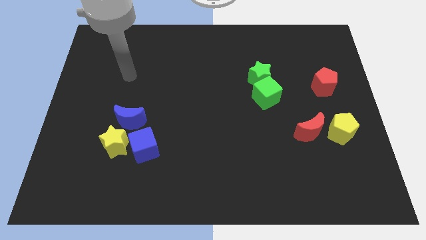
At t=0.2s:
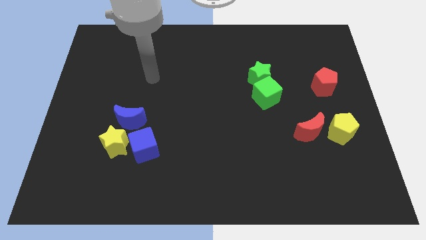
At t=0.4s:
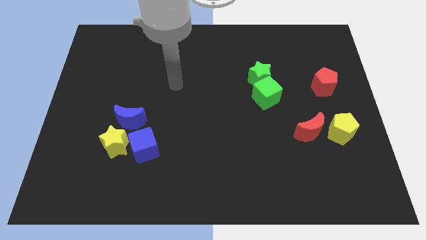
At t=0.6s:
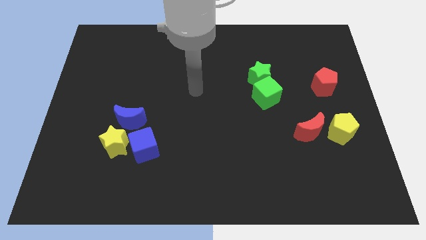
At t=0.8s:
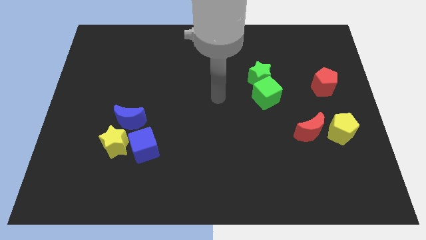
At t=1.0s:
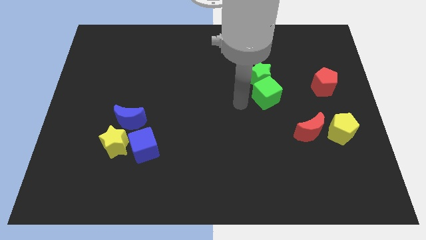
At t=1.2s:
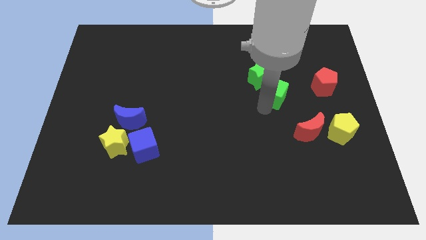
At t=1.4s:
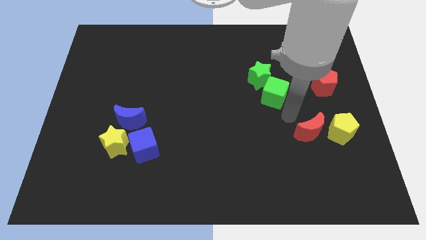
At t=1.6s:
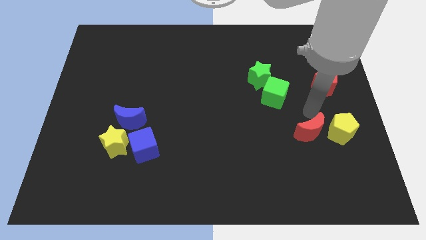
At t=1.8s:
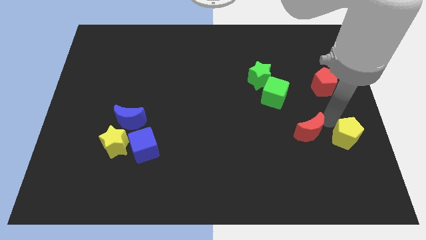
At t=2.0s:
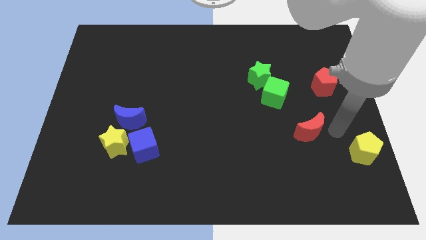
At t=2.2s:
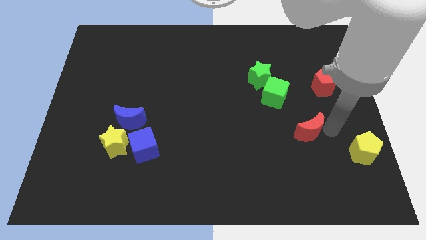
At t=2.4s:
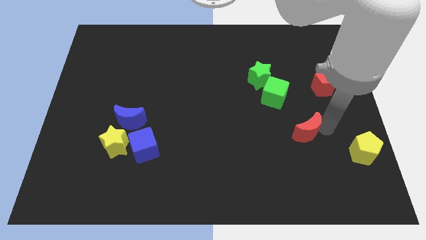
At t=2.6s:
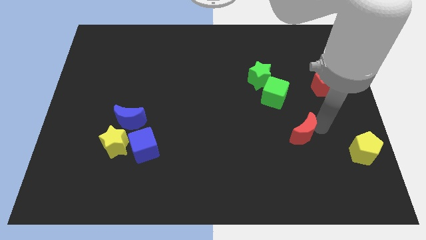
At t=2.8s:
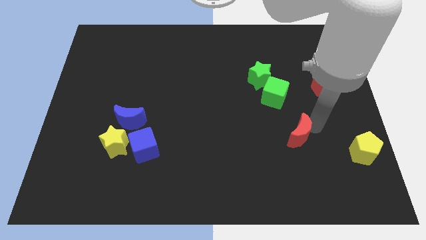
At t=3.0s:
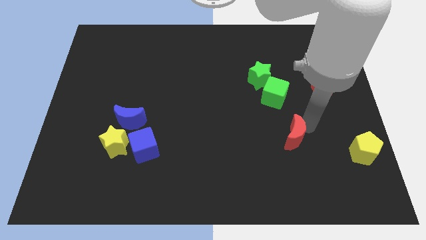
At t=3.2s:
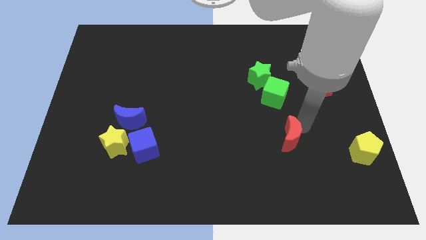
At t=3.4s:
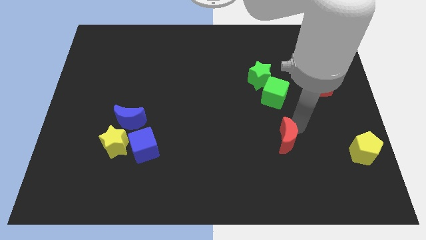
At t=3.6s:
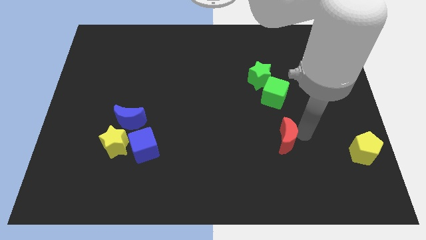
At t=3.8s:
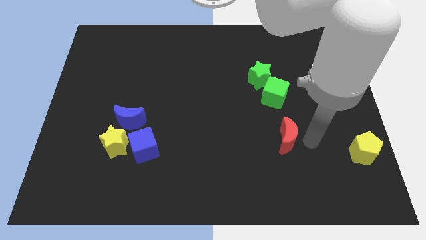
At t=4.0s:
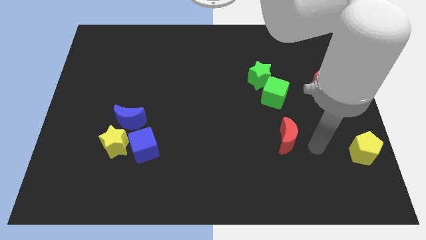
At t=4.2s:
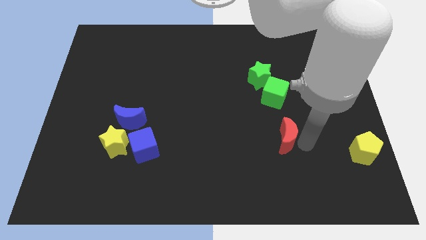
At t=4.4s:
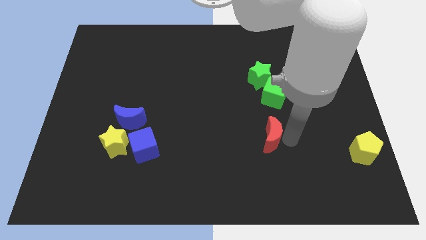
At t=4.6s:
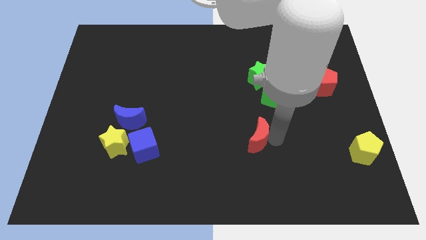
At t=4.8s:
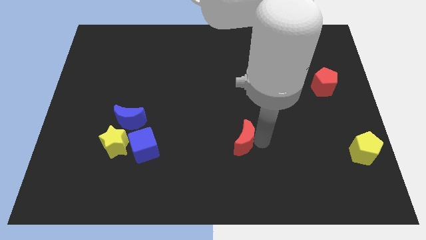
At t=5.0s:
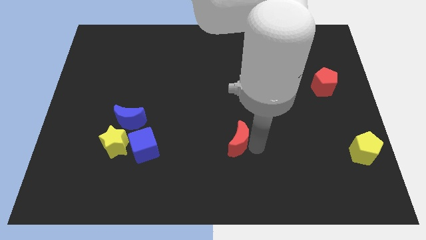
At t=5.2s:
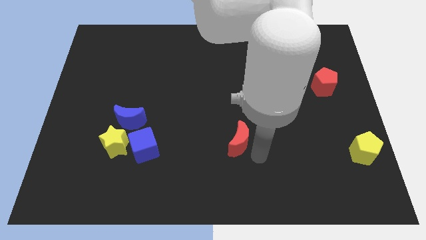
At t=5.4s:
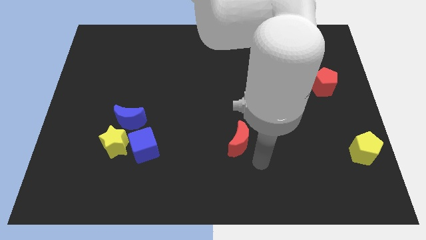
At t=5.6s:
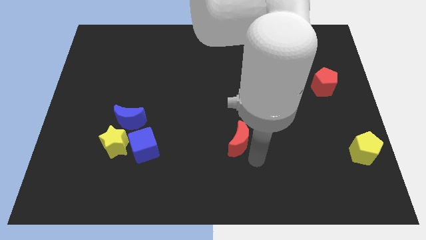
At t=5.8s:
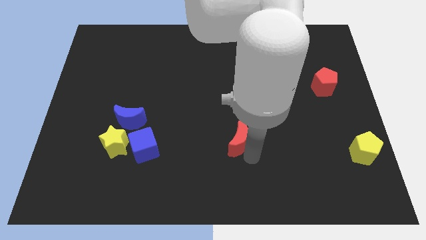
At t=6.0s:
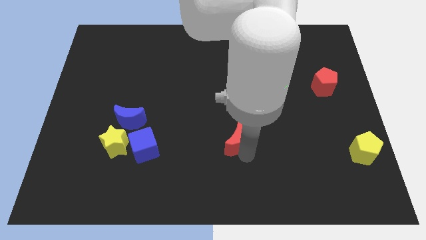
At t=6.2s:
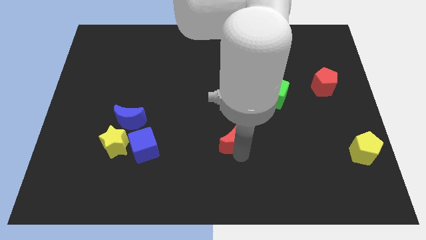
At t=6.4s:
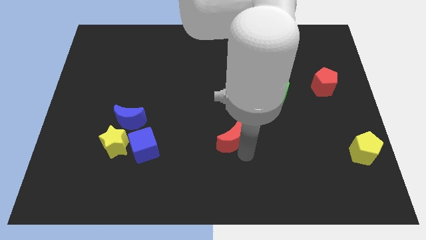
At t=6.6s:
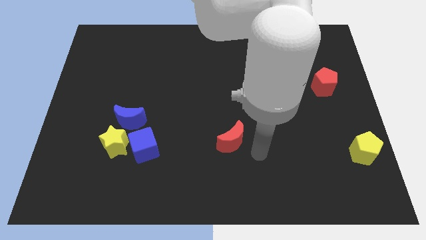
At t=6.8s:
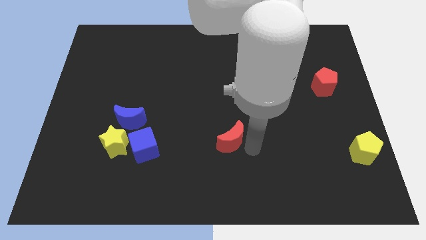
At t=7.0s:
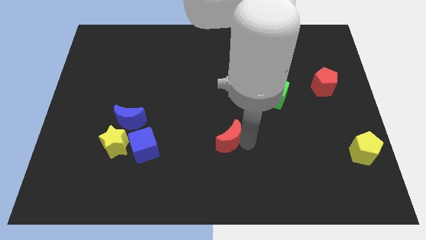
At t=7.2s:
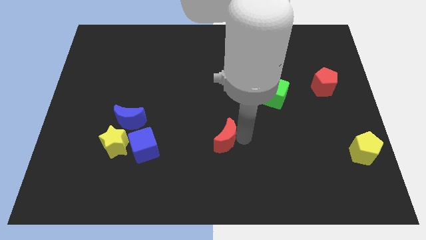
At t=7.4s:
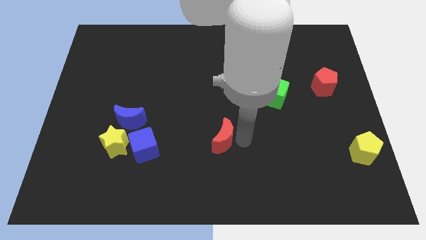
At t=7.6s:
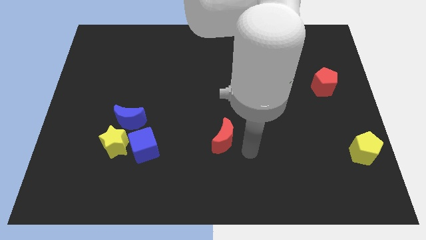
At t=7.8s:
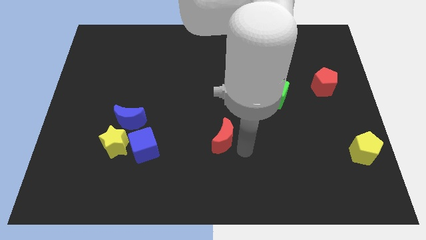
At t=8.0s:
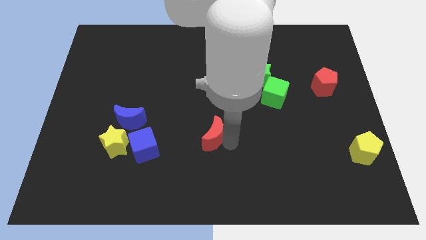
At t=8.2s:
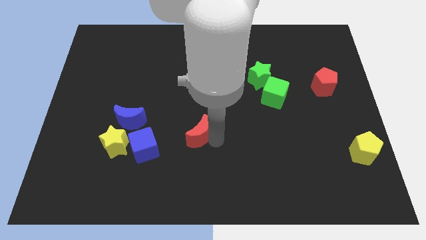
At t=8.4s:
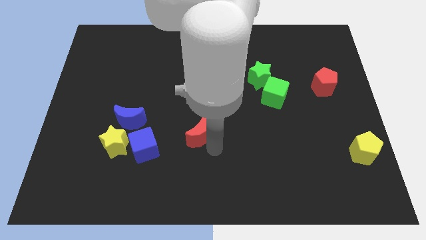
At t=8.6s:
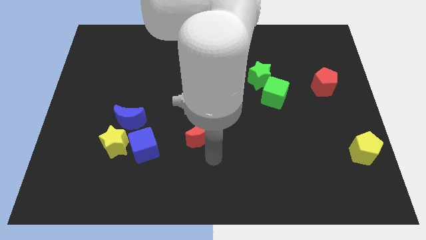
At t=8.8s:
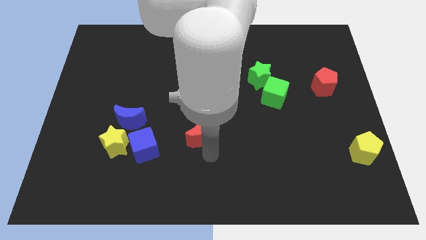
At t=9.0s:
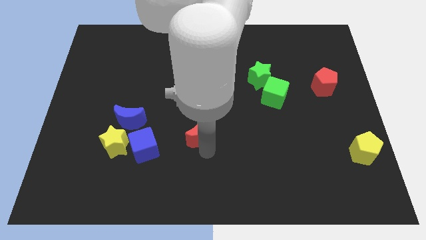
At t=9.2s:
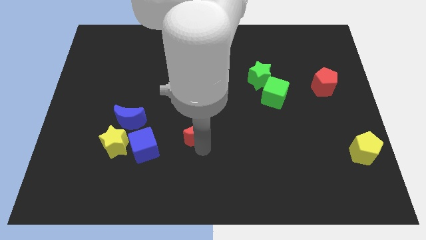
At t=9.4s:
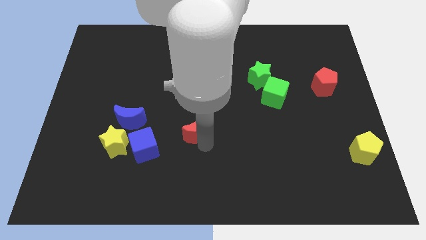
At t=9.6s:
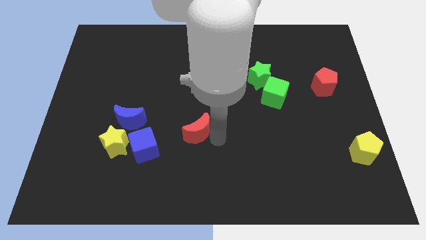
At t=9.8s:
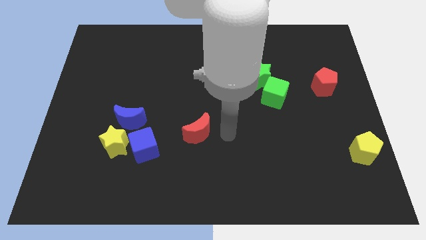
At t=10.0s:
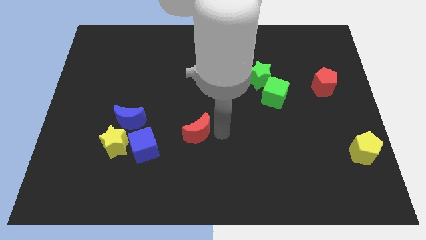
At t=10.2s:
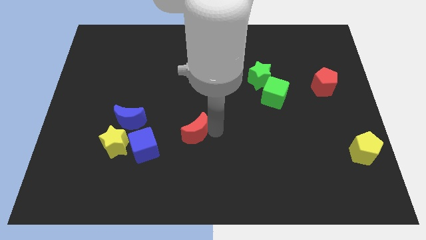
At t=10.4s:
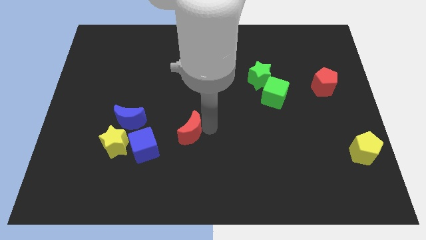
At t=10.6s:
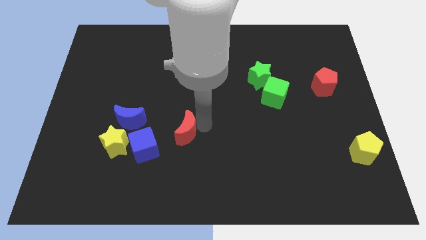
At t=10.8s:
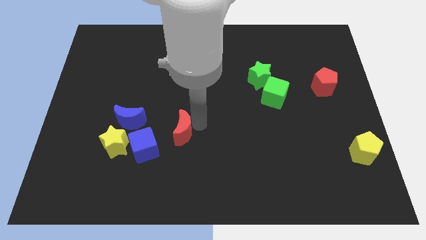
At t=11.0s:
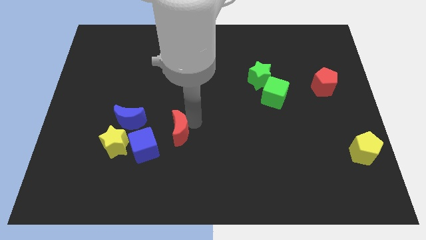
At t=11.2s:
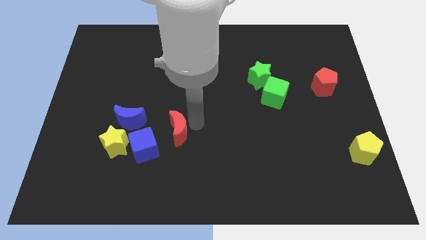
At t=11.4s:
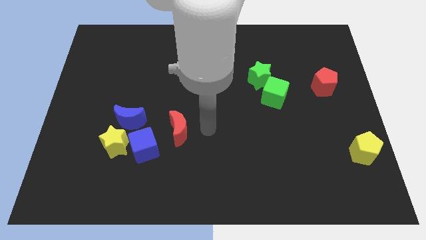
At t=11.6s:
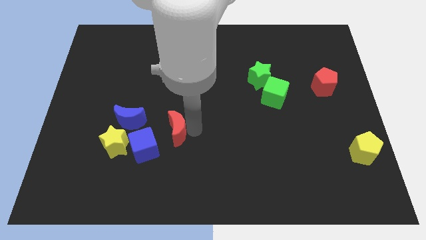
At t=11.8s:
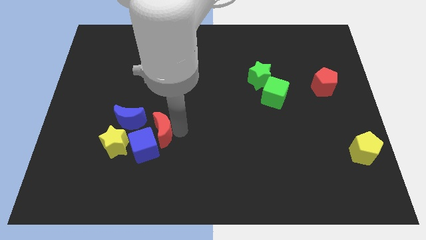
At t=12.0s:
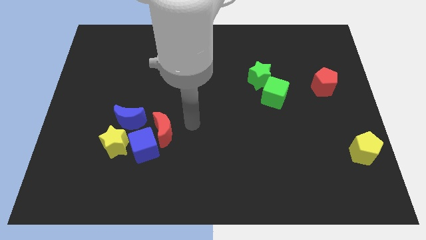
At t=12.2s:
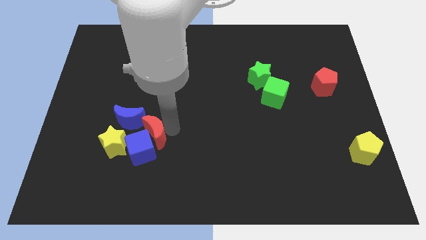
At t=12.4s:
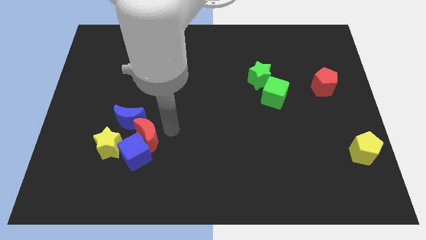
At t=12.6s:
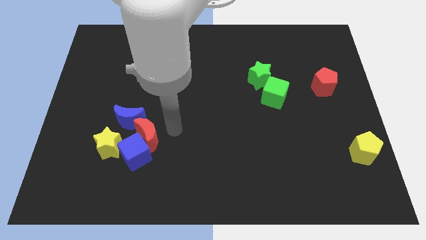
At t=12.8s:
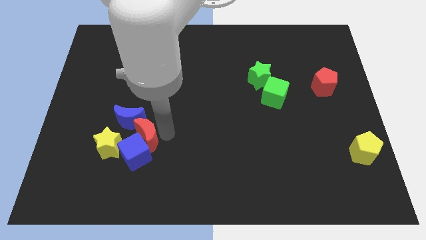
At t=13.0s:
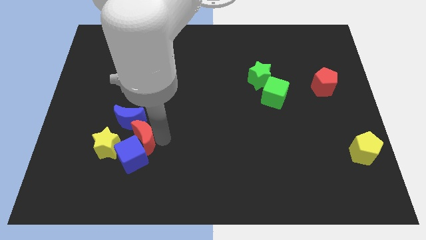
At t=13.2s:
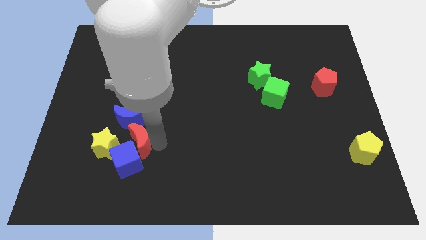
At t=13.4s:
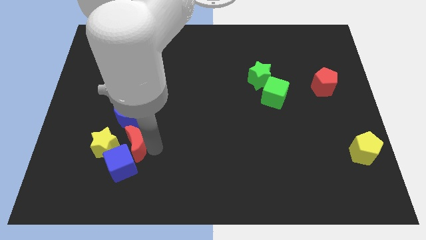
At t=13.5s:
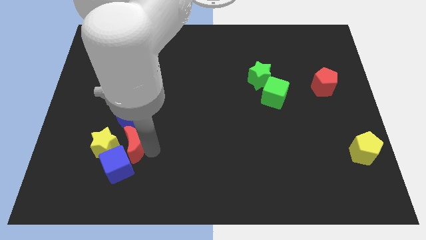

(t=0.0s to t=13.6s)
put the red moon close to the yellow star

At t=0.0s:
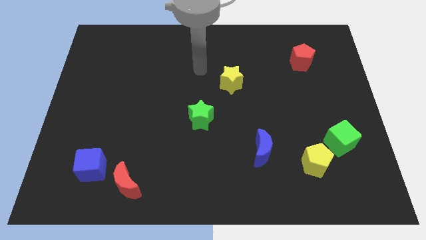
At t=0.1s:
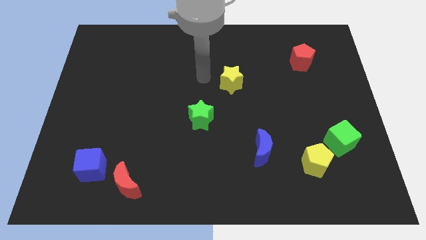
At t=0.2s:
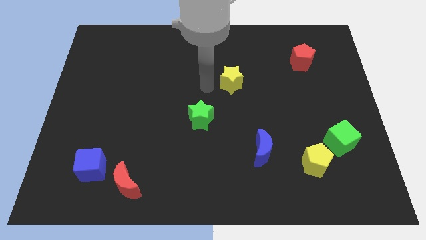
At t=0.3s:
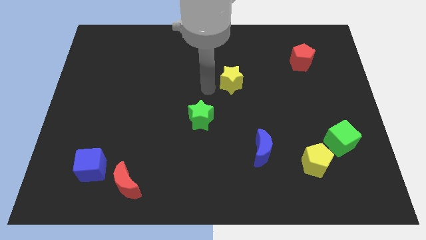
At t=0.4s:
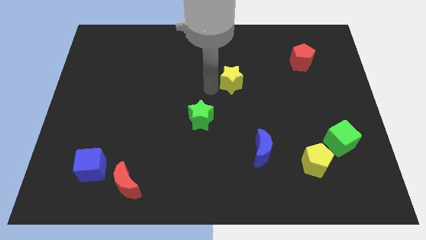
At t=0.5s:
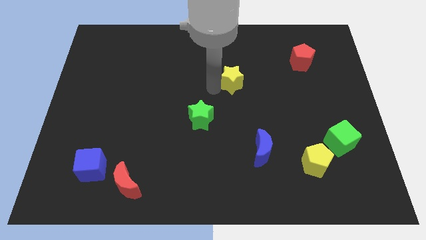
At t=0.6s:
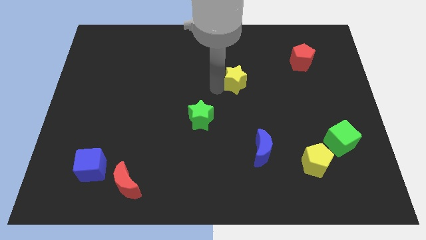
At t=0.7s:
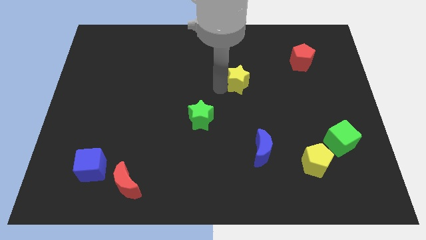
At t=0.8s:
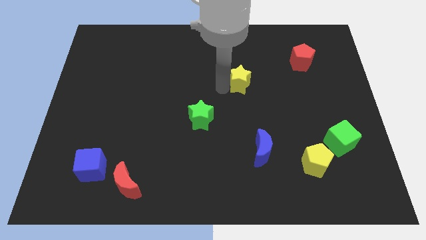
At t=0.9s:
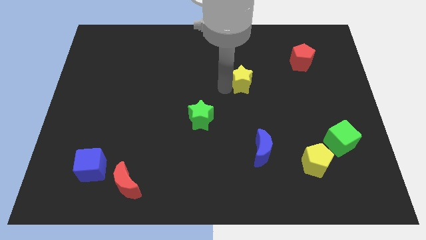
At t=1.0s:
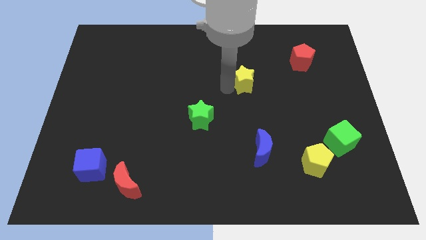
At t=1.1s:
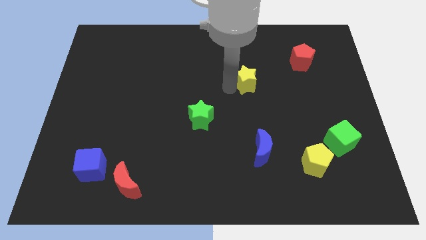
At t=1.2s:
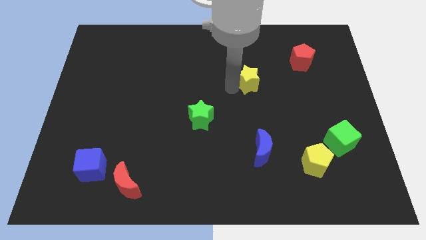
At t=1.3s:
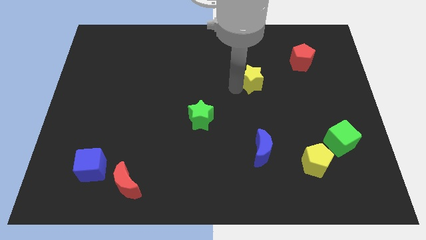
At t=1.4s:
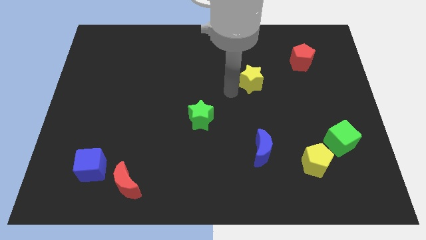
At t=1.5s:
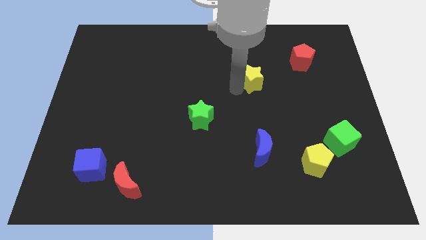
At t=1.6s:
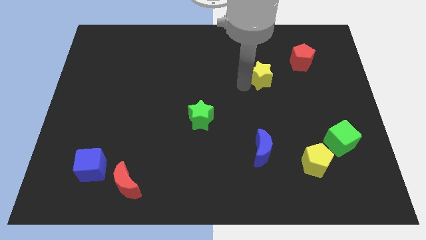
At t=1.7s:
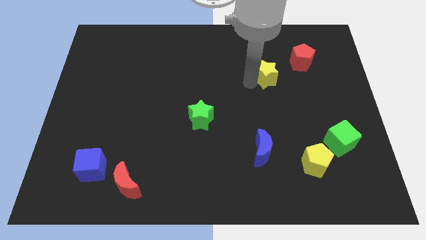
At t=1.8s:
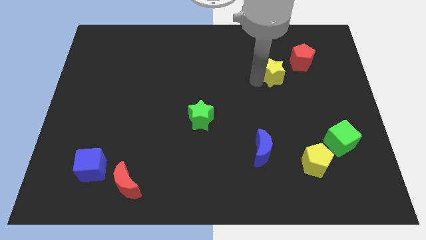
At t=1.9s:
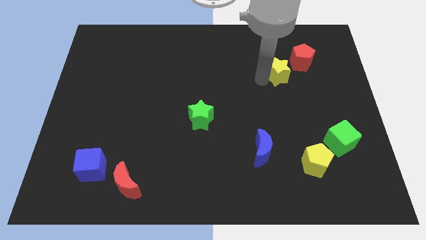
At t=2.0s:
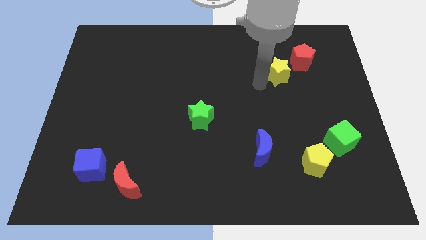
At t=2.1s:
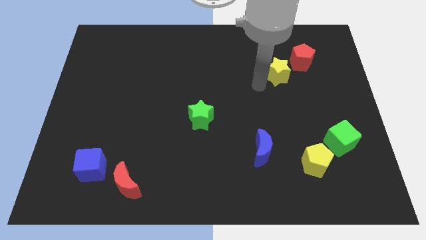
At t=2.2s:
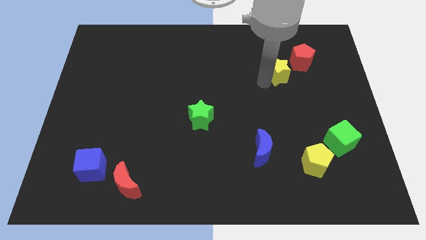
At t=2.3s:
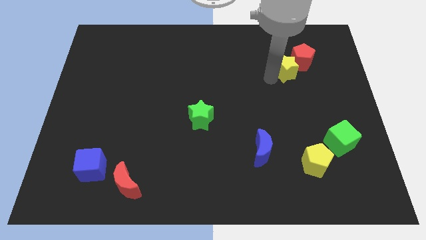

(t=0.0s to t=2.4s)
slide the yellow star next to the red pentagon
